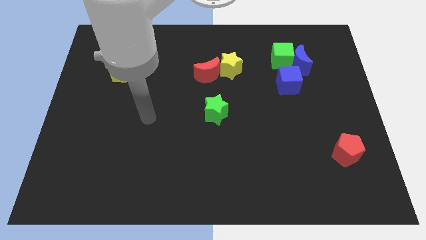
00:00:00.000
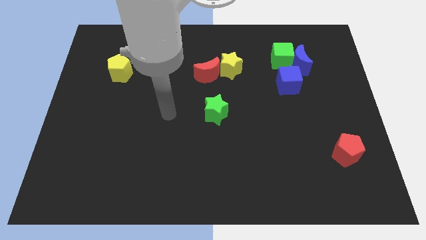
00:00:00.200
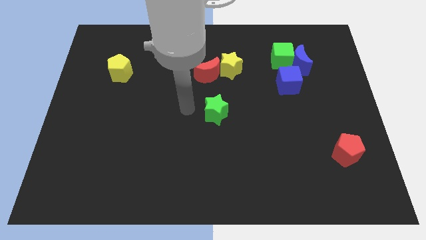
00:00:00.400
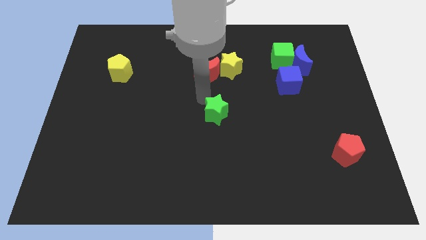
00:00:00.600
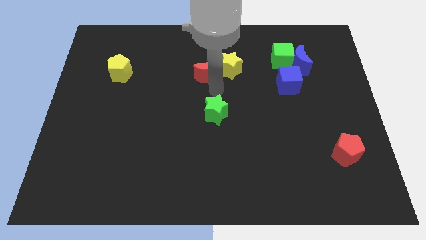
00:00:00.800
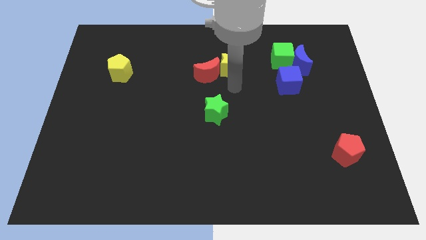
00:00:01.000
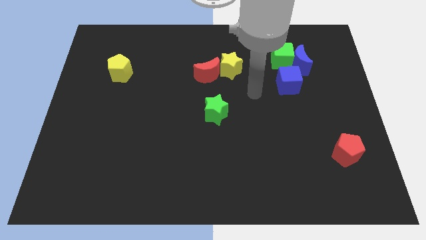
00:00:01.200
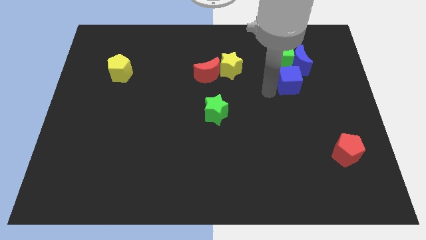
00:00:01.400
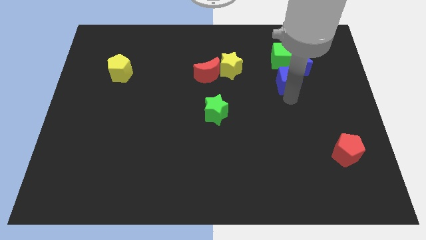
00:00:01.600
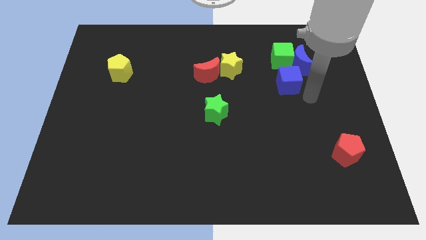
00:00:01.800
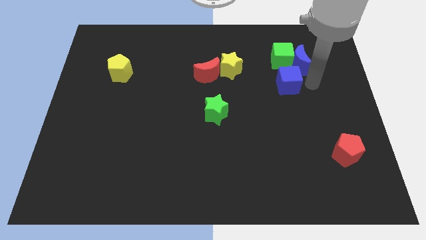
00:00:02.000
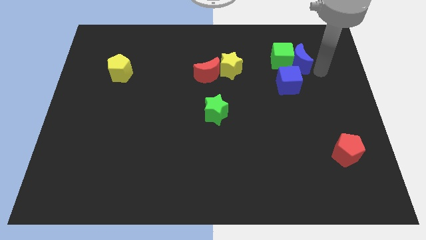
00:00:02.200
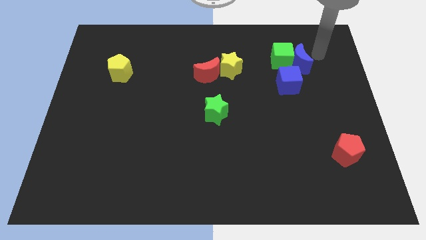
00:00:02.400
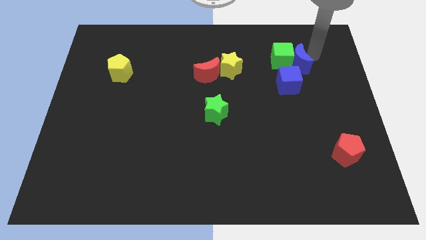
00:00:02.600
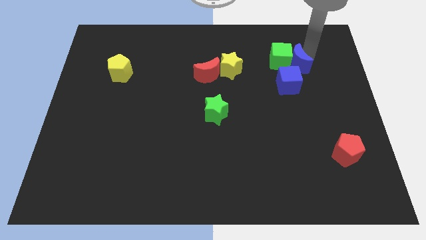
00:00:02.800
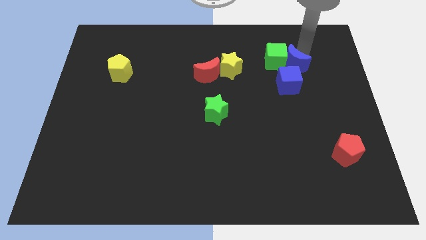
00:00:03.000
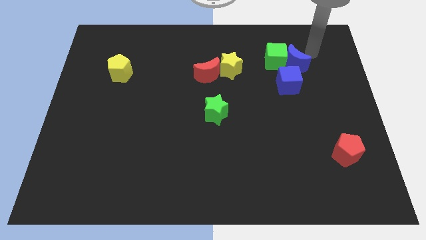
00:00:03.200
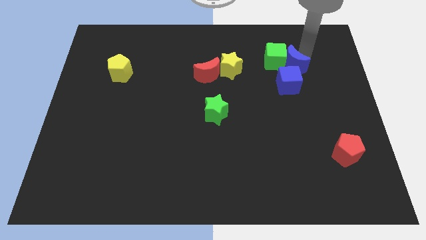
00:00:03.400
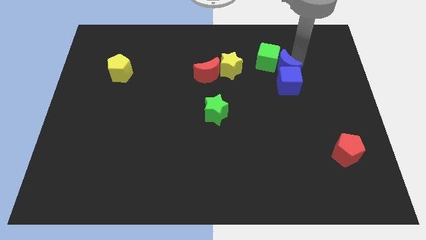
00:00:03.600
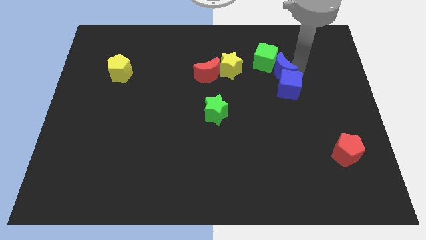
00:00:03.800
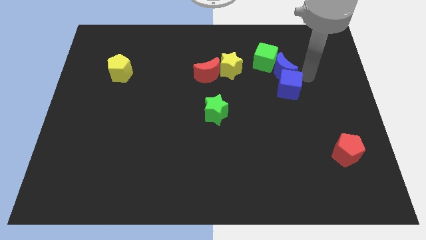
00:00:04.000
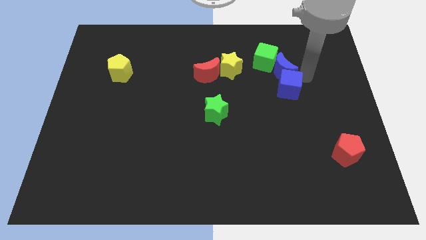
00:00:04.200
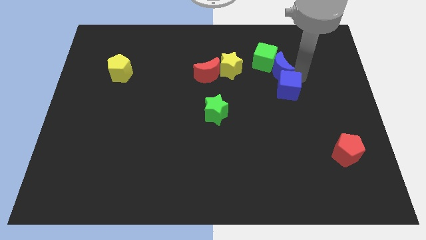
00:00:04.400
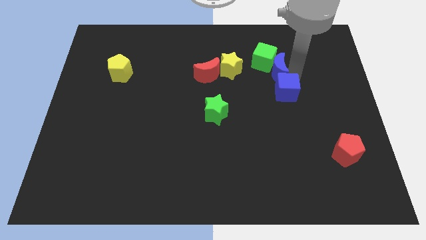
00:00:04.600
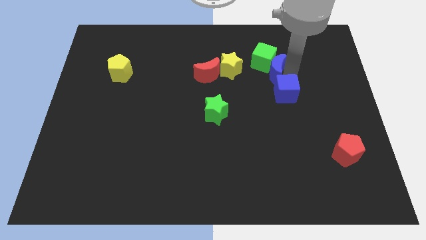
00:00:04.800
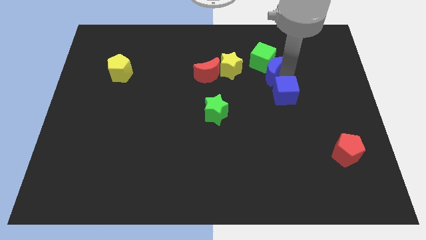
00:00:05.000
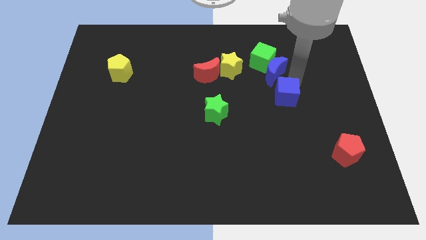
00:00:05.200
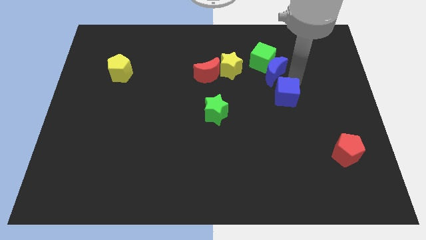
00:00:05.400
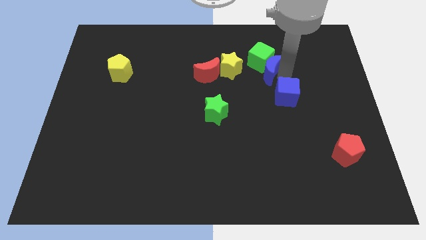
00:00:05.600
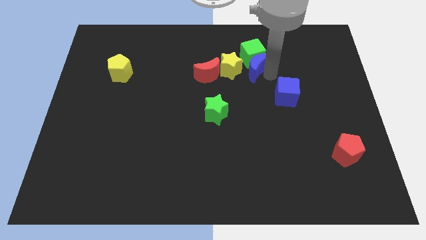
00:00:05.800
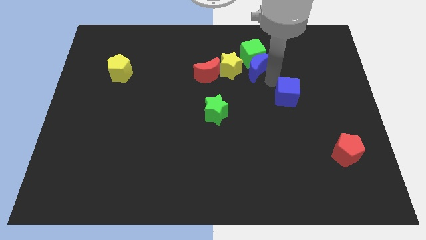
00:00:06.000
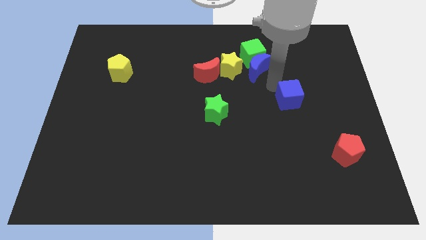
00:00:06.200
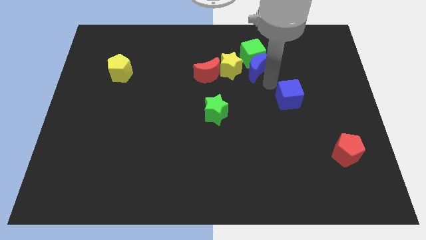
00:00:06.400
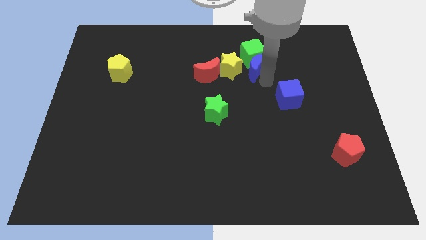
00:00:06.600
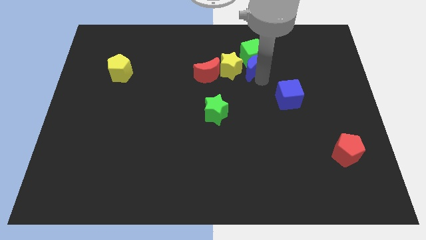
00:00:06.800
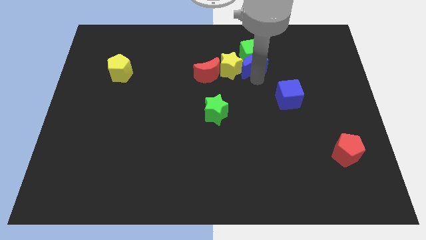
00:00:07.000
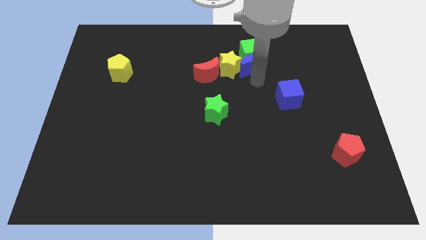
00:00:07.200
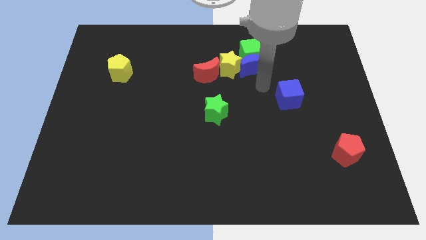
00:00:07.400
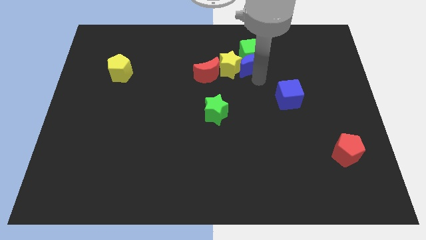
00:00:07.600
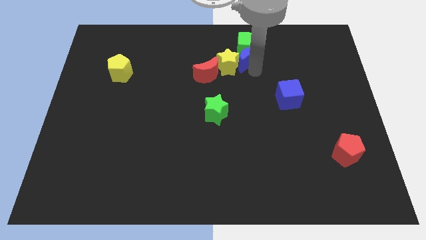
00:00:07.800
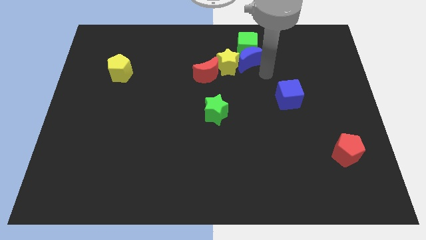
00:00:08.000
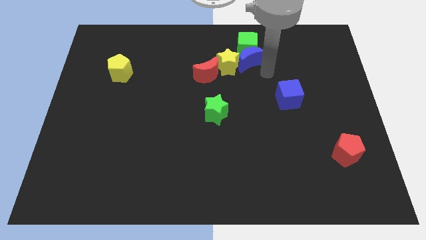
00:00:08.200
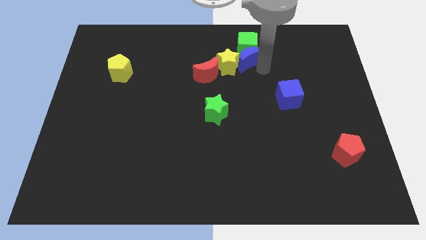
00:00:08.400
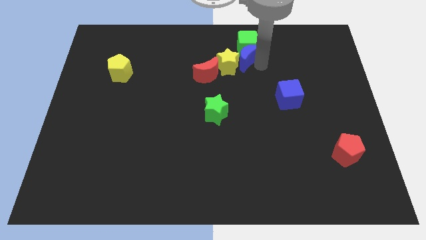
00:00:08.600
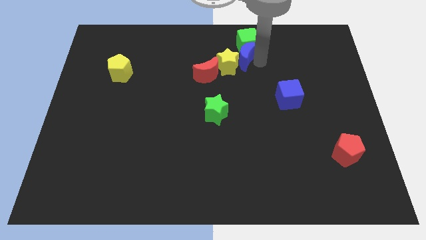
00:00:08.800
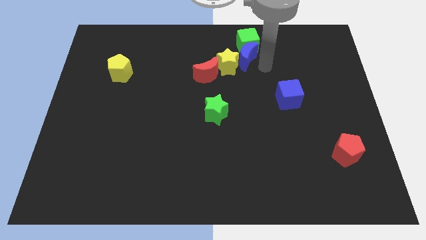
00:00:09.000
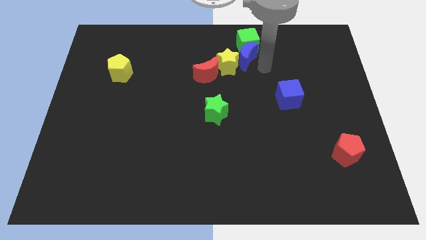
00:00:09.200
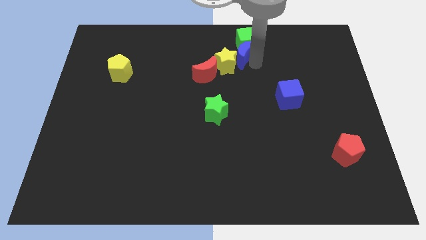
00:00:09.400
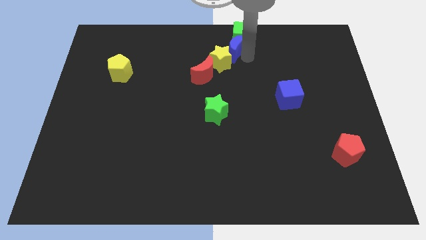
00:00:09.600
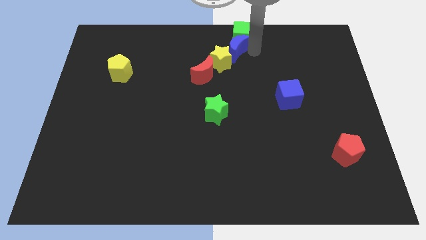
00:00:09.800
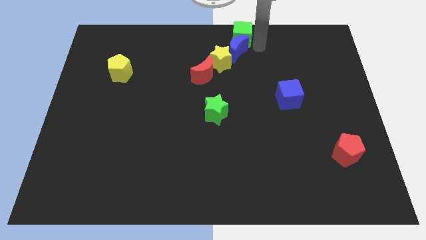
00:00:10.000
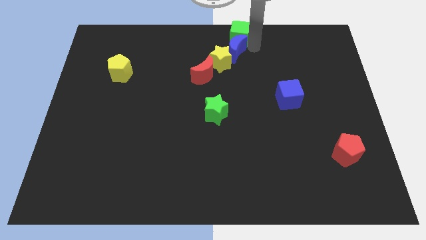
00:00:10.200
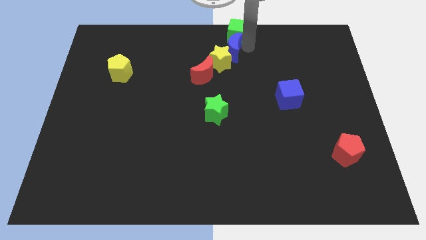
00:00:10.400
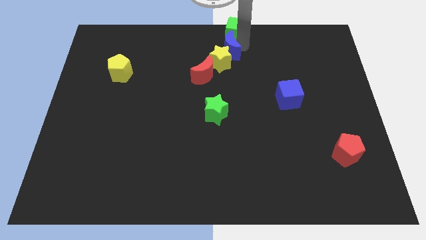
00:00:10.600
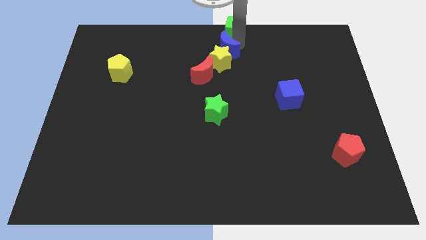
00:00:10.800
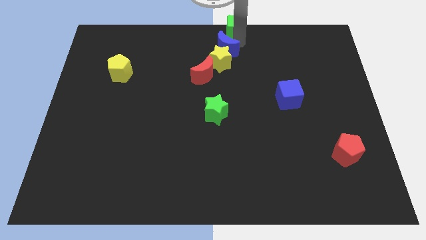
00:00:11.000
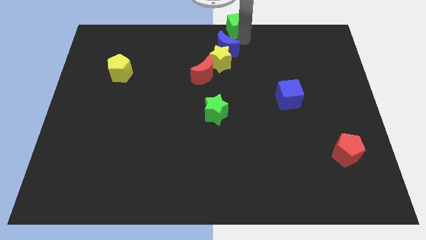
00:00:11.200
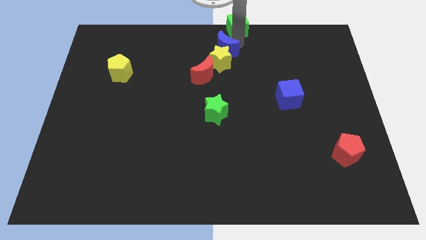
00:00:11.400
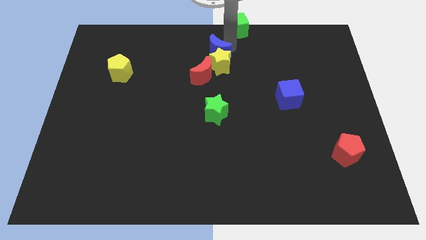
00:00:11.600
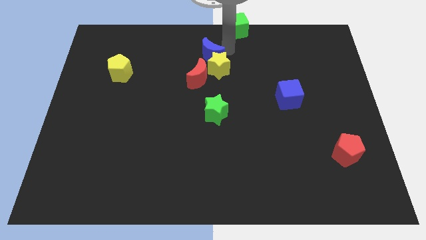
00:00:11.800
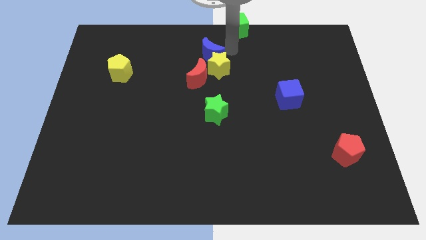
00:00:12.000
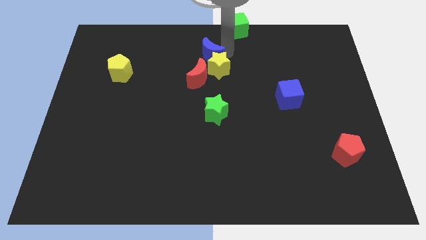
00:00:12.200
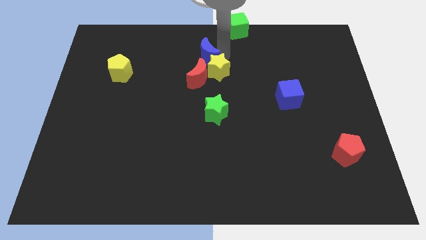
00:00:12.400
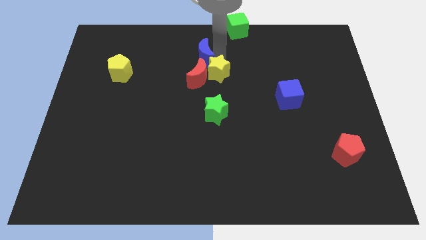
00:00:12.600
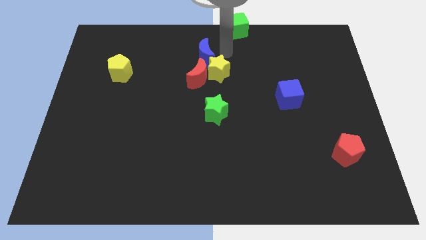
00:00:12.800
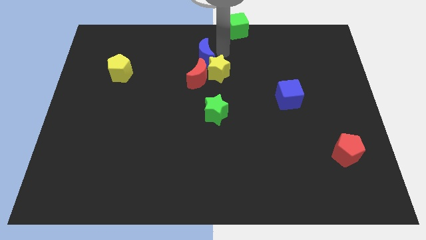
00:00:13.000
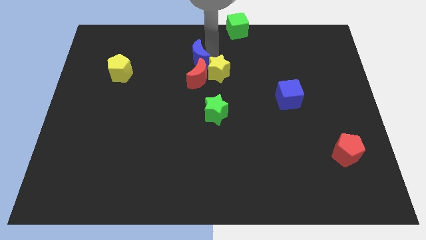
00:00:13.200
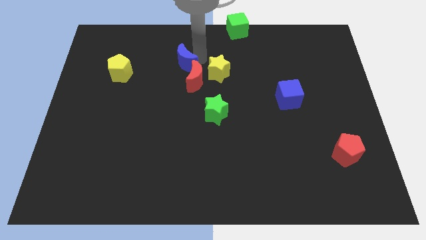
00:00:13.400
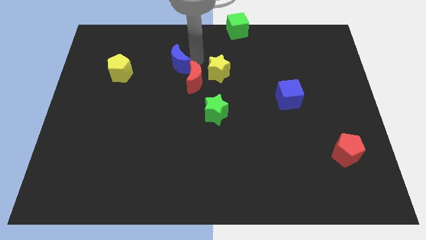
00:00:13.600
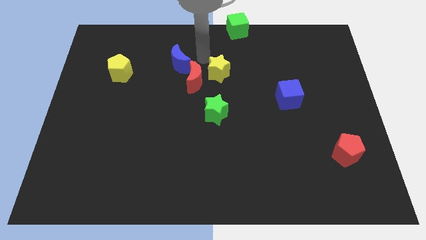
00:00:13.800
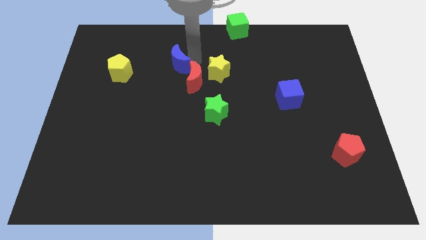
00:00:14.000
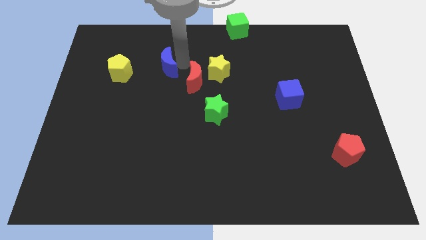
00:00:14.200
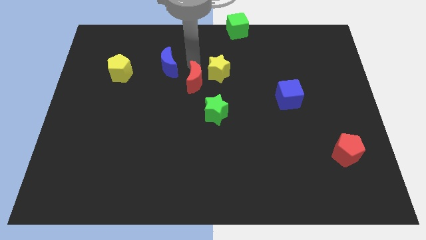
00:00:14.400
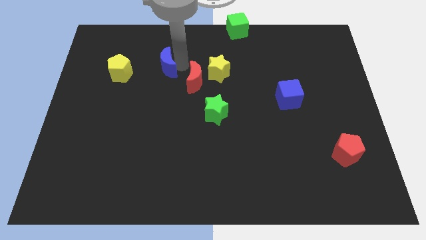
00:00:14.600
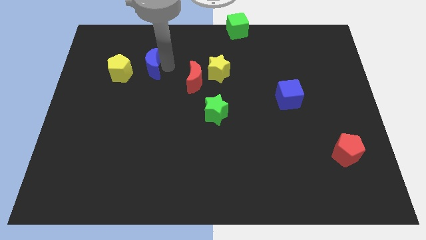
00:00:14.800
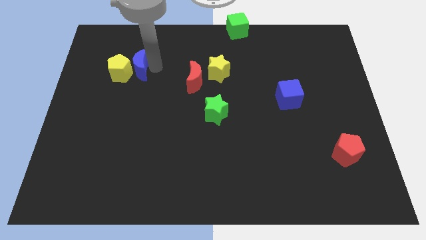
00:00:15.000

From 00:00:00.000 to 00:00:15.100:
push the blue moon close to the yellow pentagon

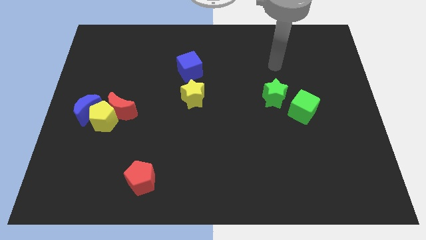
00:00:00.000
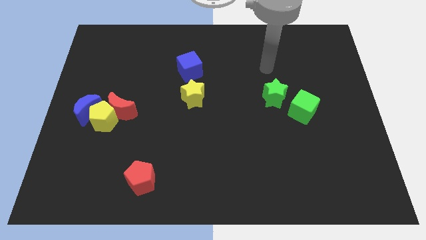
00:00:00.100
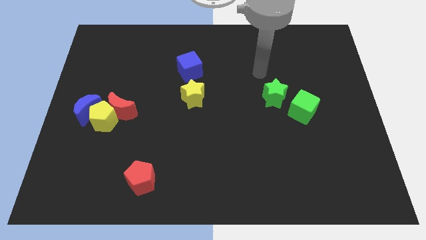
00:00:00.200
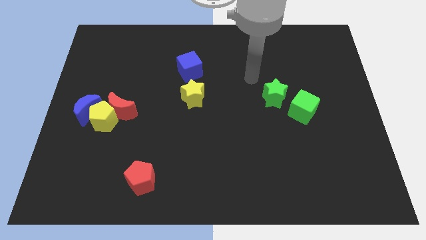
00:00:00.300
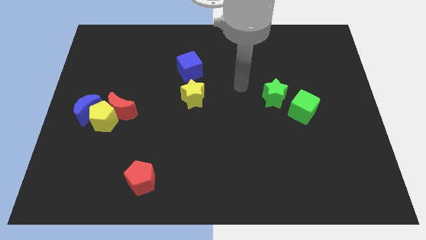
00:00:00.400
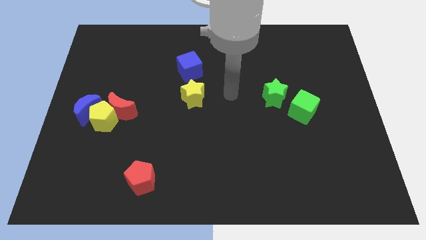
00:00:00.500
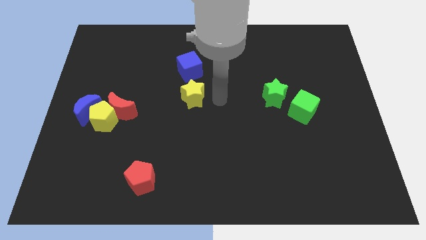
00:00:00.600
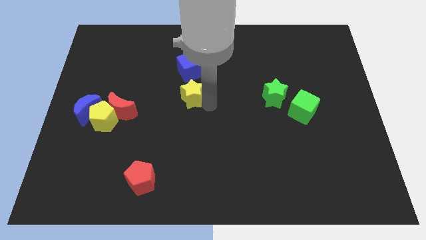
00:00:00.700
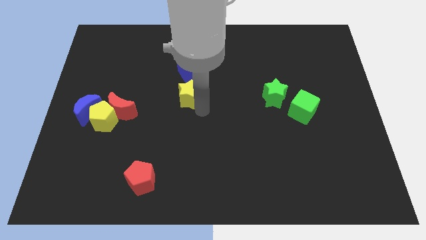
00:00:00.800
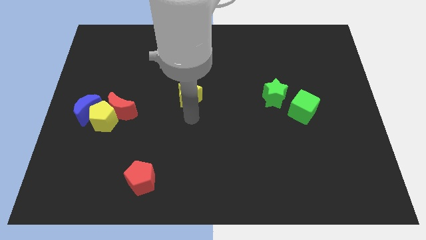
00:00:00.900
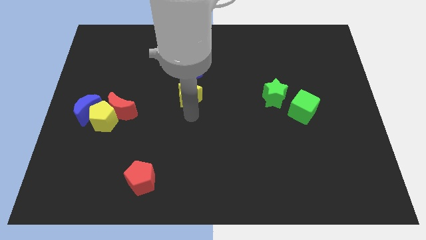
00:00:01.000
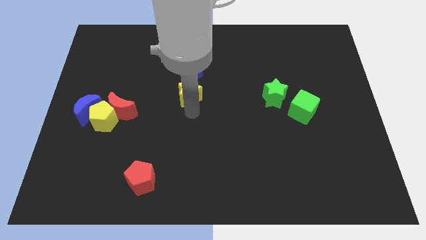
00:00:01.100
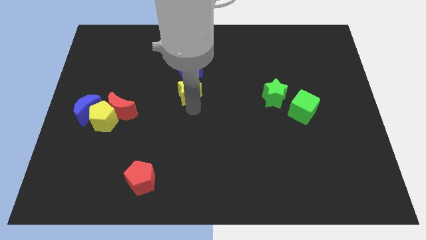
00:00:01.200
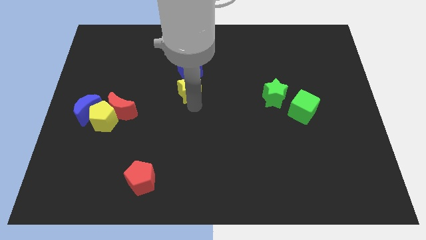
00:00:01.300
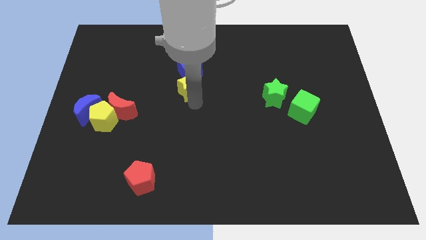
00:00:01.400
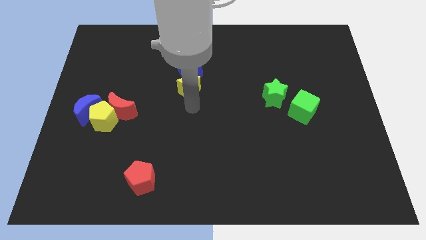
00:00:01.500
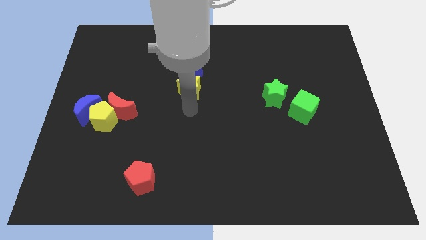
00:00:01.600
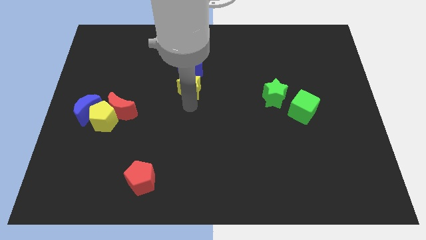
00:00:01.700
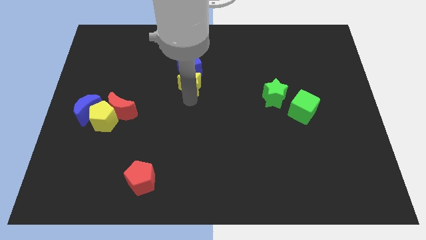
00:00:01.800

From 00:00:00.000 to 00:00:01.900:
put the yellow star towards the blue cube
